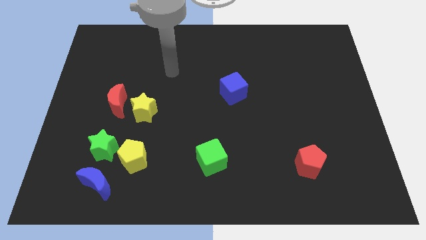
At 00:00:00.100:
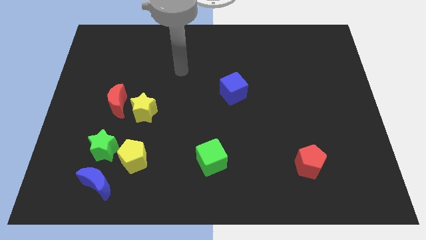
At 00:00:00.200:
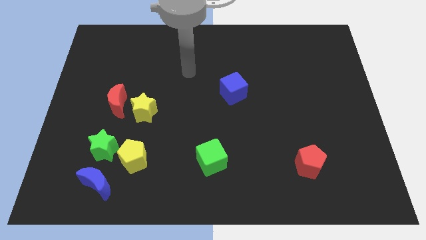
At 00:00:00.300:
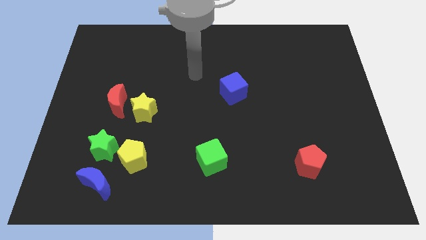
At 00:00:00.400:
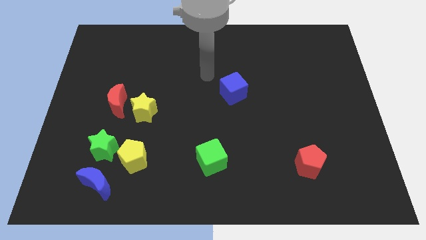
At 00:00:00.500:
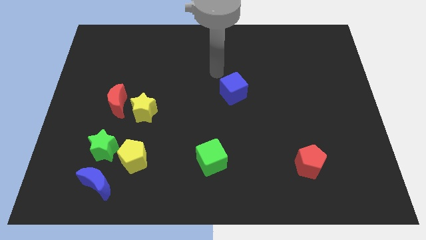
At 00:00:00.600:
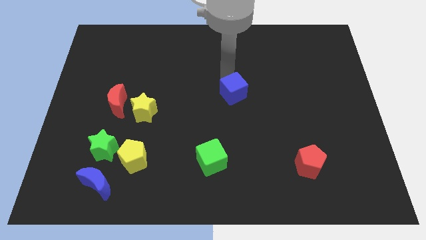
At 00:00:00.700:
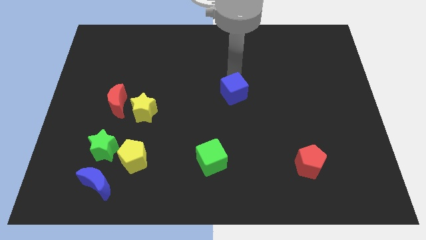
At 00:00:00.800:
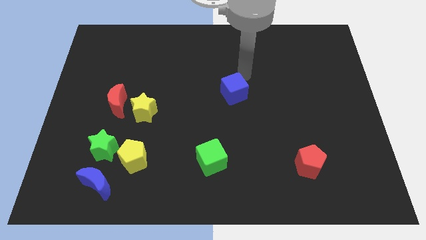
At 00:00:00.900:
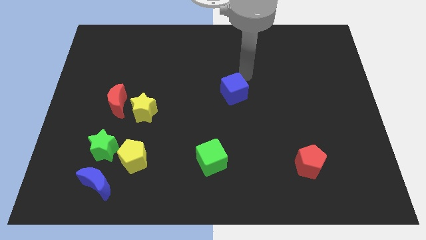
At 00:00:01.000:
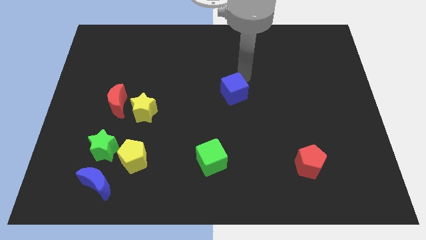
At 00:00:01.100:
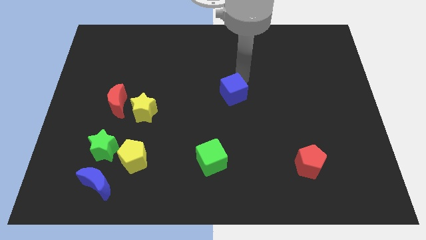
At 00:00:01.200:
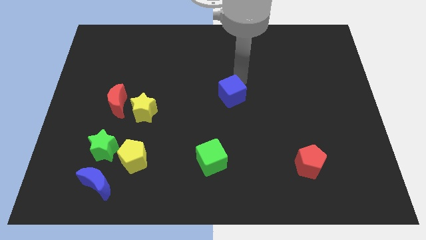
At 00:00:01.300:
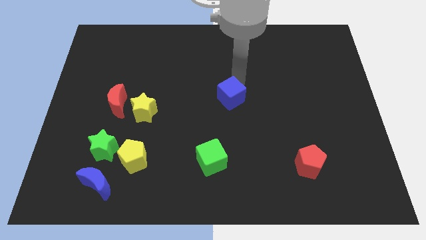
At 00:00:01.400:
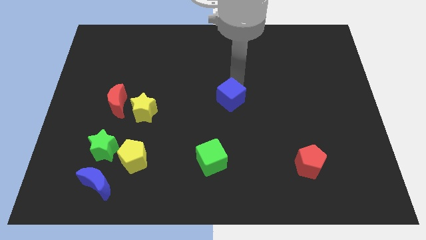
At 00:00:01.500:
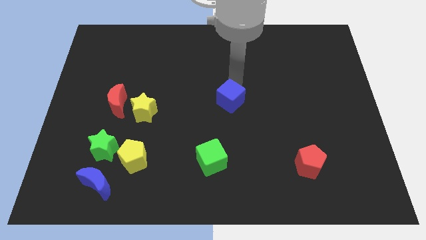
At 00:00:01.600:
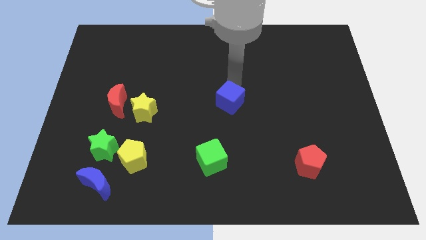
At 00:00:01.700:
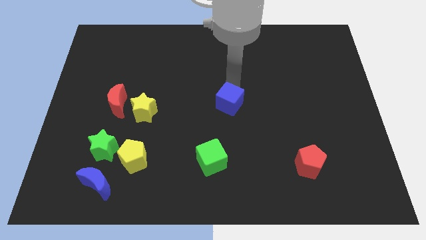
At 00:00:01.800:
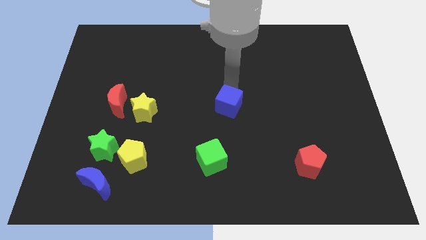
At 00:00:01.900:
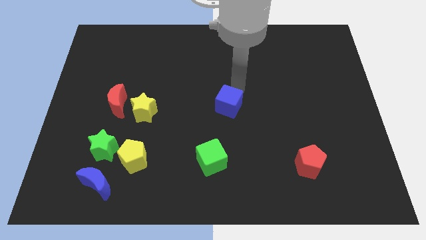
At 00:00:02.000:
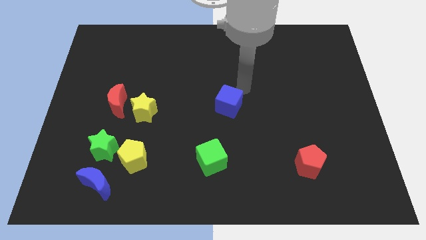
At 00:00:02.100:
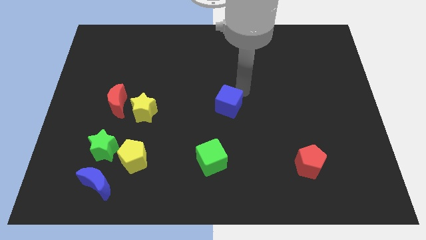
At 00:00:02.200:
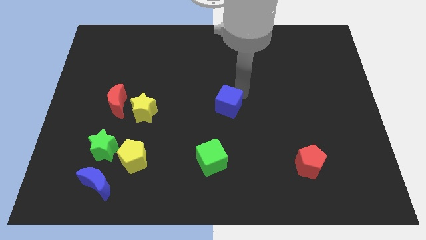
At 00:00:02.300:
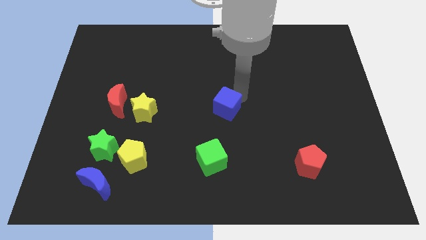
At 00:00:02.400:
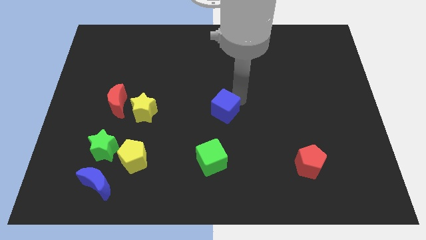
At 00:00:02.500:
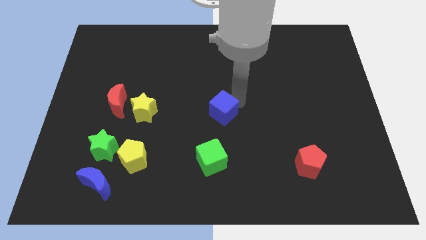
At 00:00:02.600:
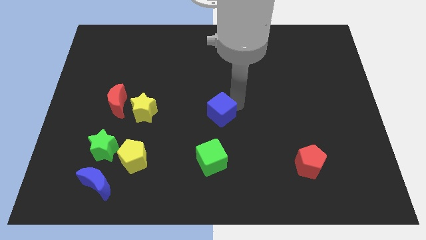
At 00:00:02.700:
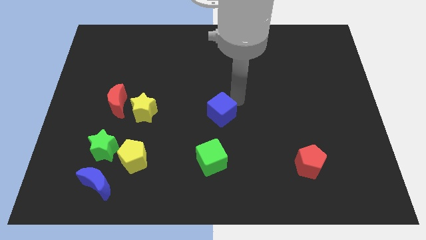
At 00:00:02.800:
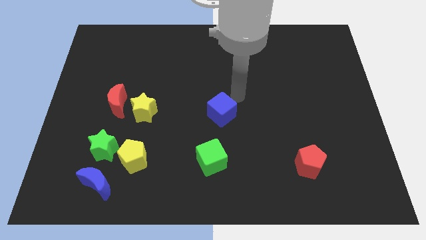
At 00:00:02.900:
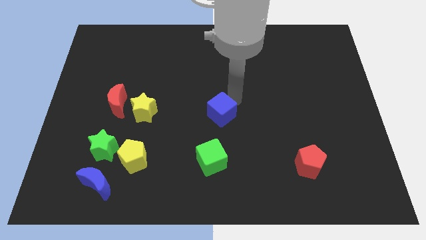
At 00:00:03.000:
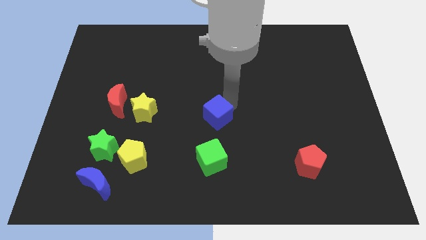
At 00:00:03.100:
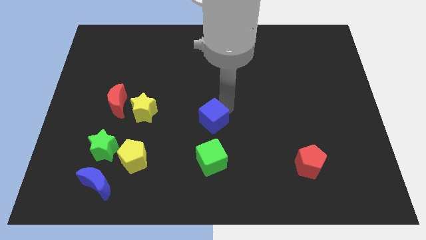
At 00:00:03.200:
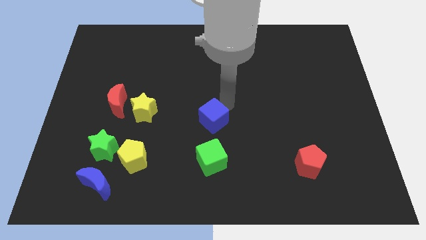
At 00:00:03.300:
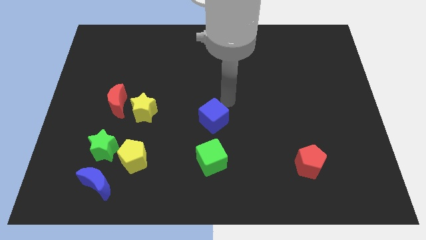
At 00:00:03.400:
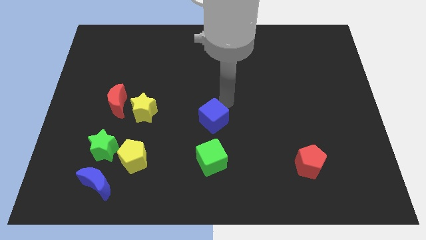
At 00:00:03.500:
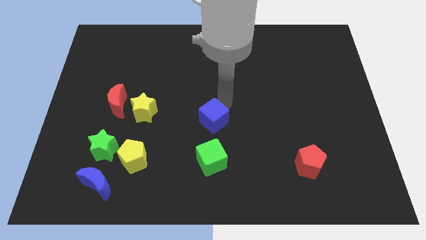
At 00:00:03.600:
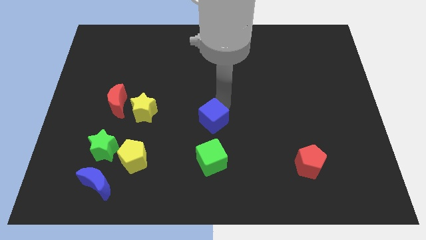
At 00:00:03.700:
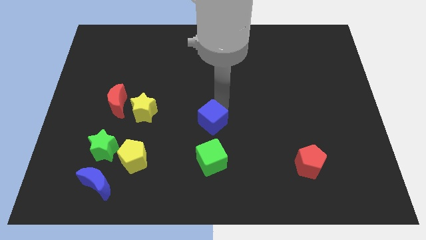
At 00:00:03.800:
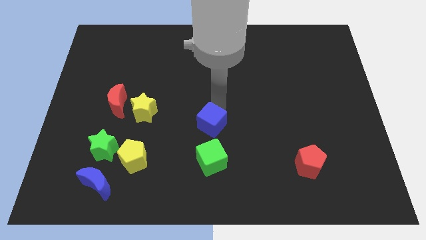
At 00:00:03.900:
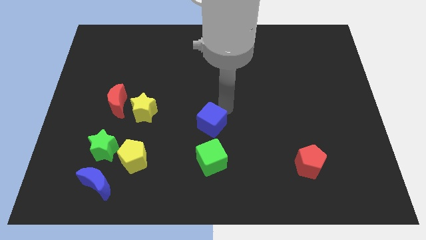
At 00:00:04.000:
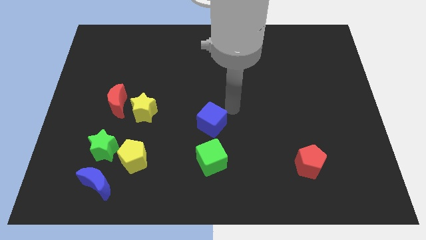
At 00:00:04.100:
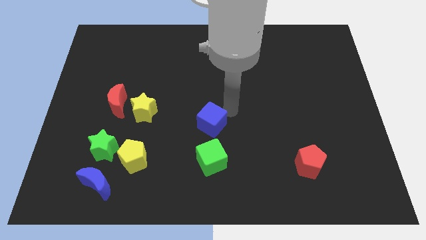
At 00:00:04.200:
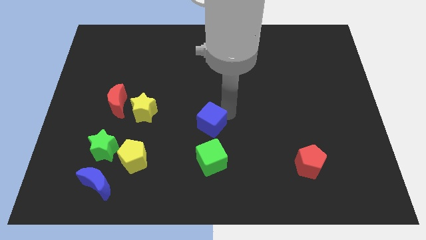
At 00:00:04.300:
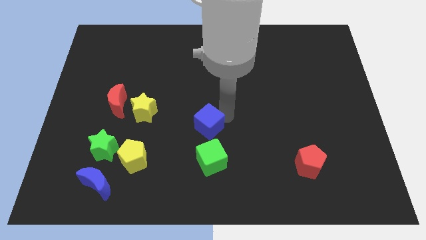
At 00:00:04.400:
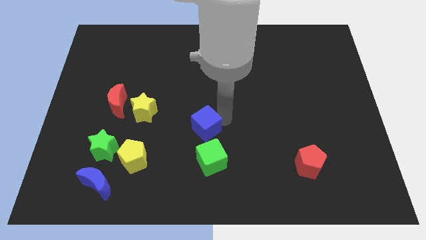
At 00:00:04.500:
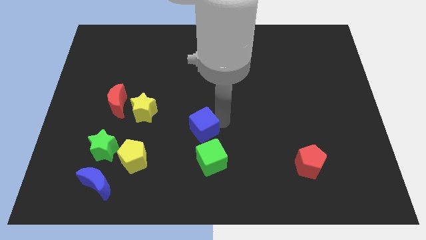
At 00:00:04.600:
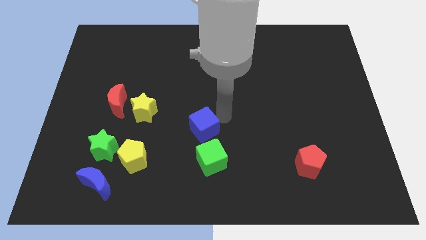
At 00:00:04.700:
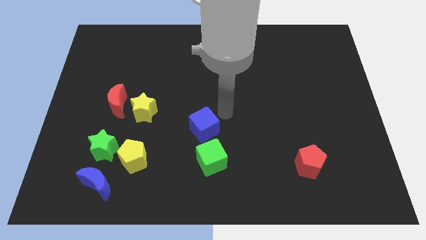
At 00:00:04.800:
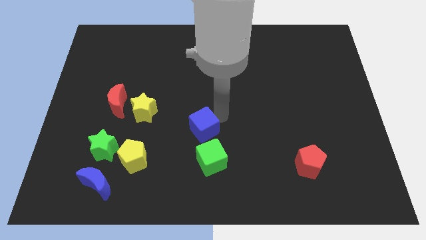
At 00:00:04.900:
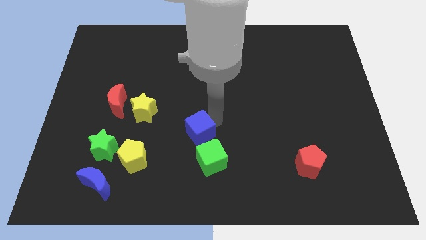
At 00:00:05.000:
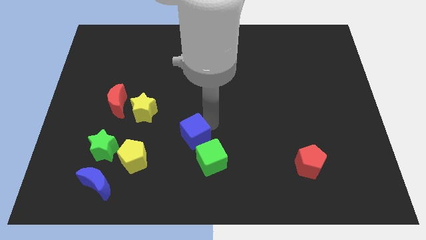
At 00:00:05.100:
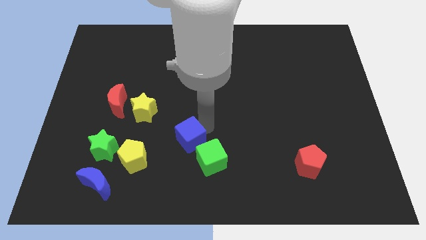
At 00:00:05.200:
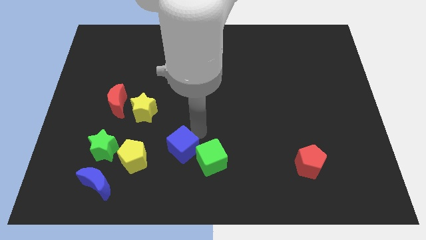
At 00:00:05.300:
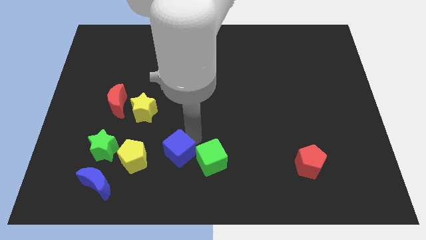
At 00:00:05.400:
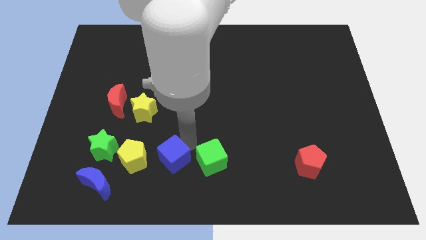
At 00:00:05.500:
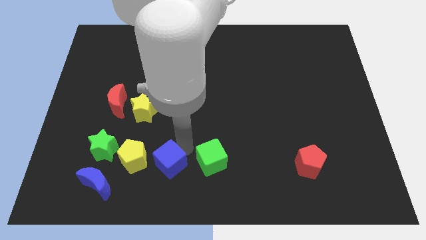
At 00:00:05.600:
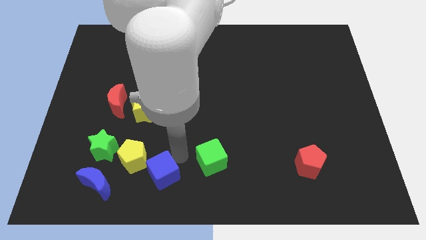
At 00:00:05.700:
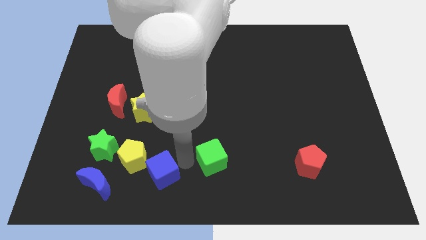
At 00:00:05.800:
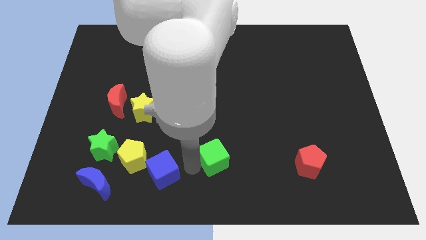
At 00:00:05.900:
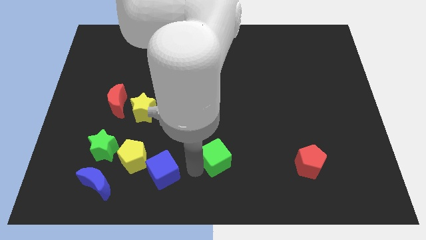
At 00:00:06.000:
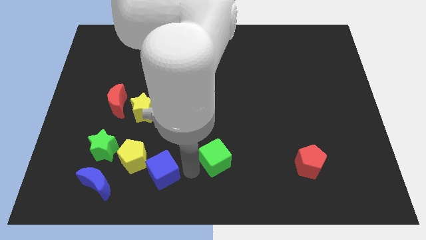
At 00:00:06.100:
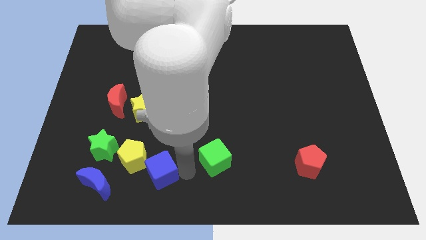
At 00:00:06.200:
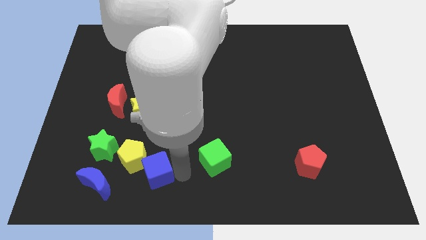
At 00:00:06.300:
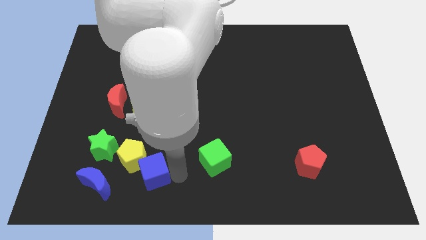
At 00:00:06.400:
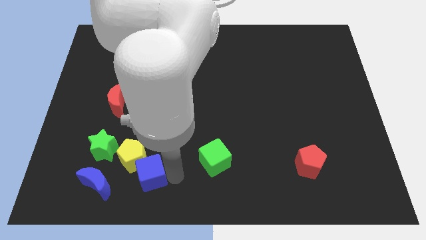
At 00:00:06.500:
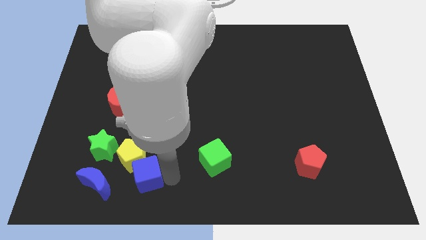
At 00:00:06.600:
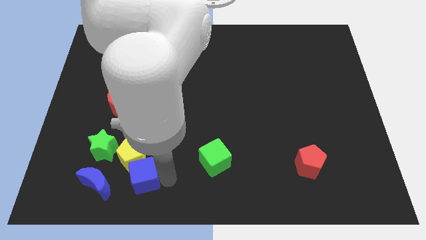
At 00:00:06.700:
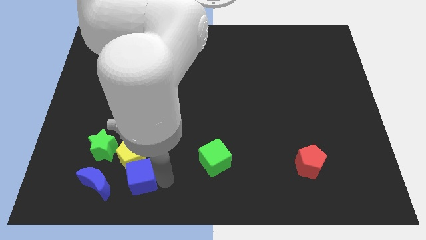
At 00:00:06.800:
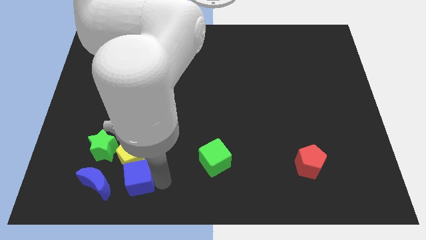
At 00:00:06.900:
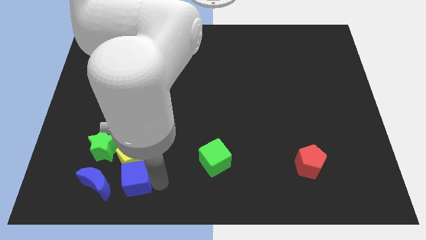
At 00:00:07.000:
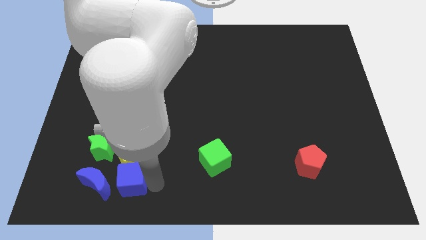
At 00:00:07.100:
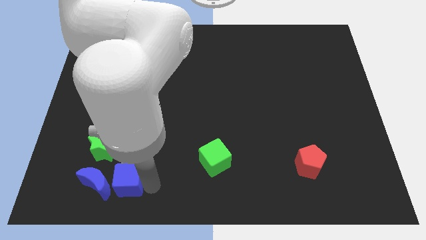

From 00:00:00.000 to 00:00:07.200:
slide the blue cube next to the blue moon
